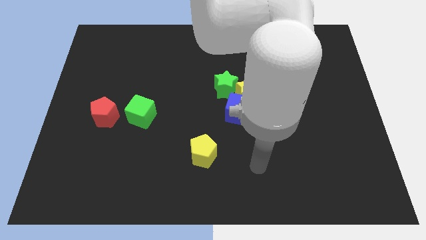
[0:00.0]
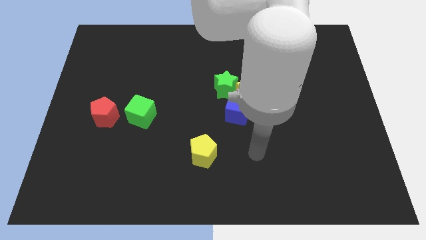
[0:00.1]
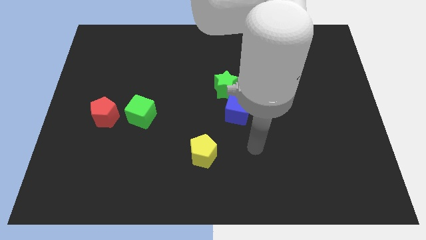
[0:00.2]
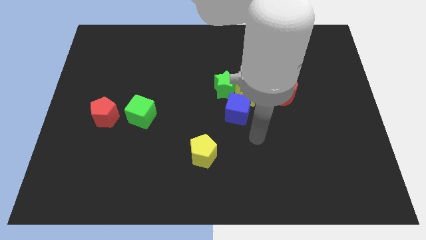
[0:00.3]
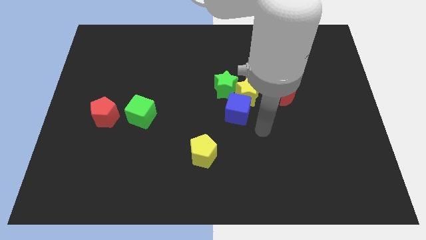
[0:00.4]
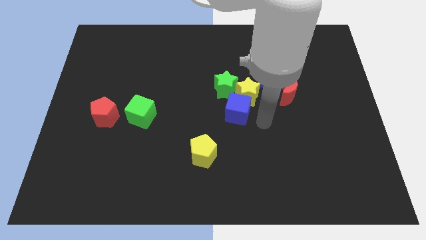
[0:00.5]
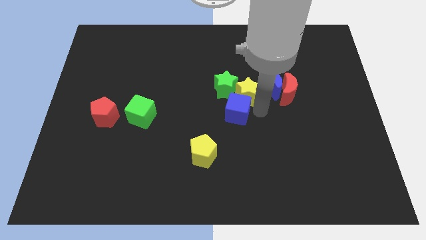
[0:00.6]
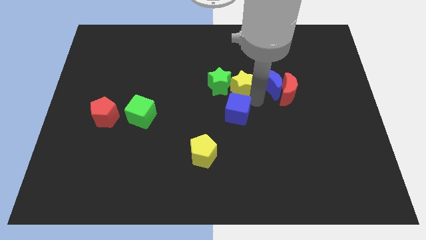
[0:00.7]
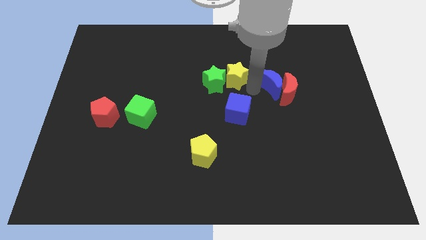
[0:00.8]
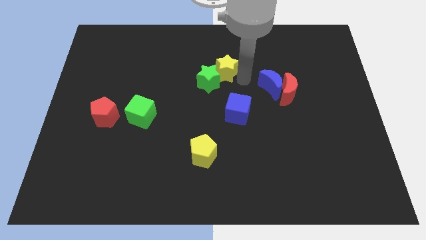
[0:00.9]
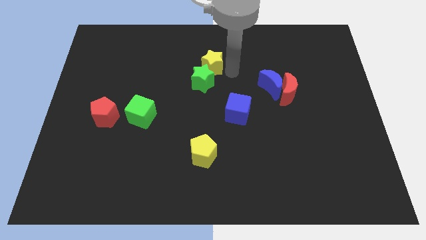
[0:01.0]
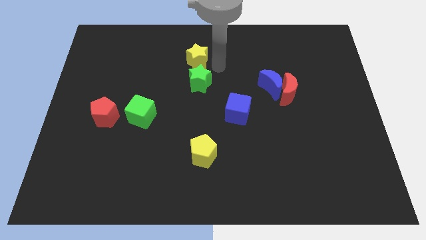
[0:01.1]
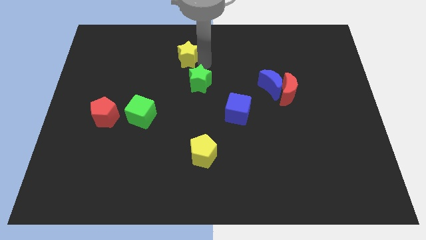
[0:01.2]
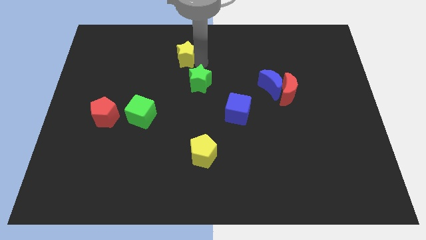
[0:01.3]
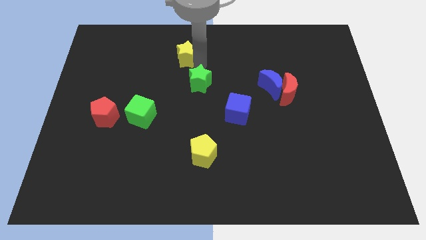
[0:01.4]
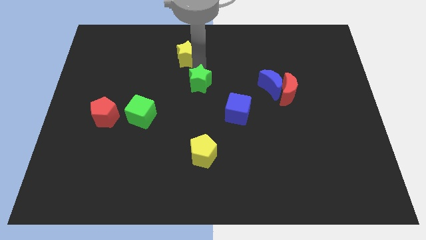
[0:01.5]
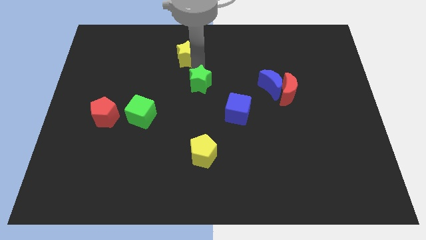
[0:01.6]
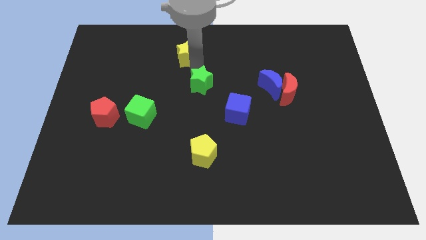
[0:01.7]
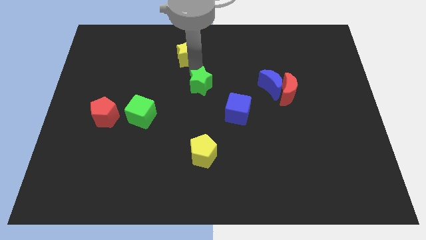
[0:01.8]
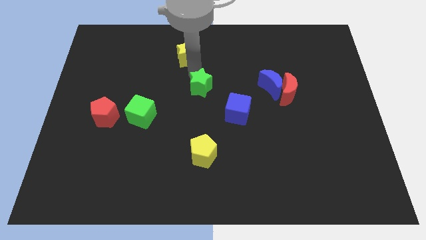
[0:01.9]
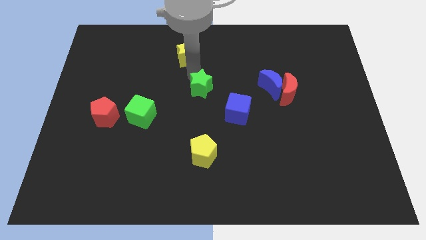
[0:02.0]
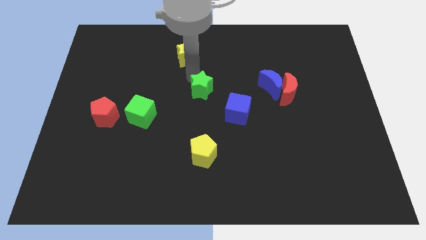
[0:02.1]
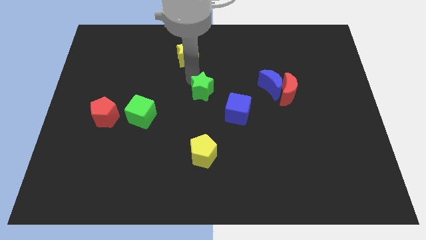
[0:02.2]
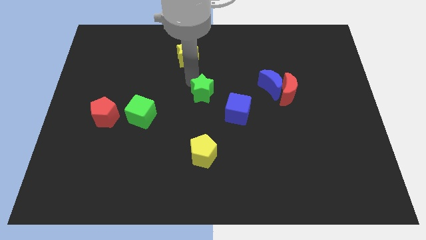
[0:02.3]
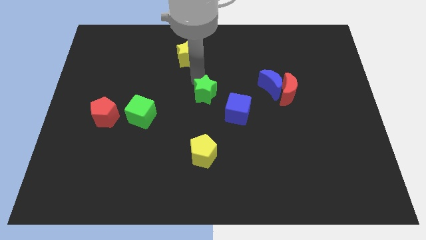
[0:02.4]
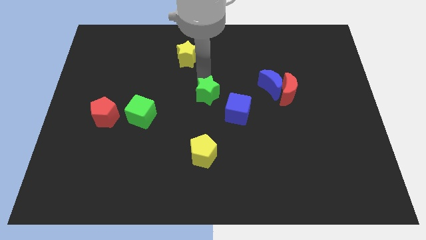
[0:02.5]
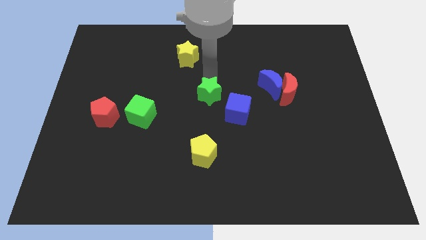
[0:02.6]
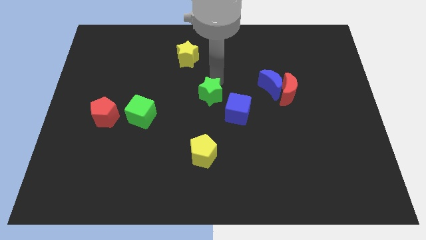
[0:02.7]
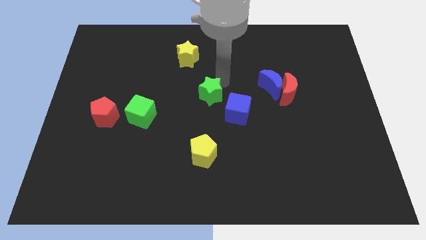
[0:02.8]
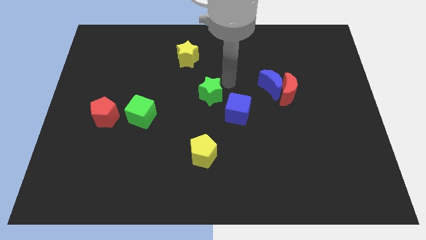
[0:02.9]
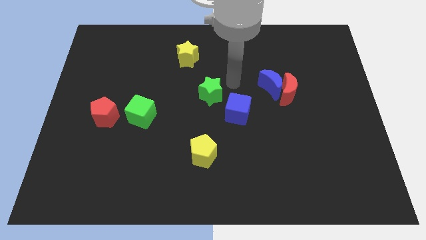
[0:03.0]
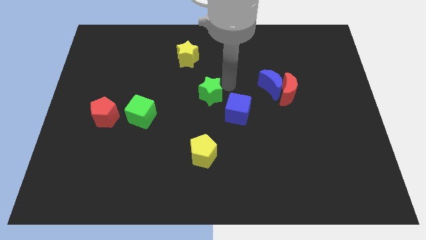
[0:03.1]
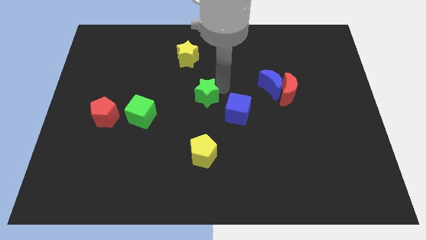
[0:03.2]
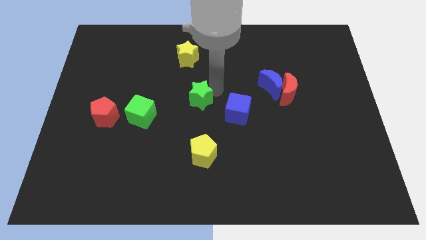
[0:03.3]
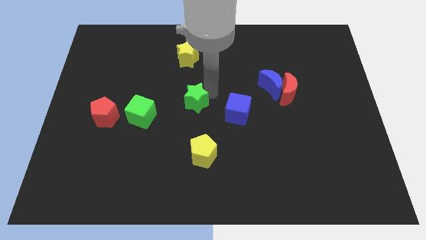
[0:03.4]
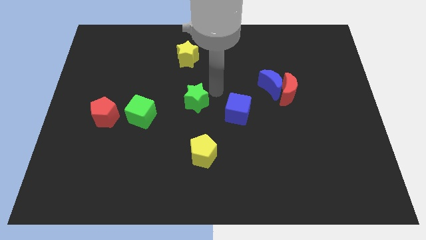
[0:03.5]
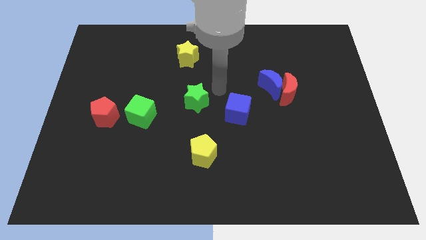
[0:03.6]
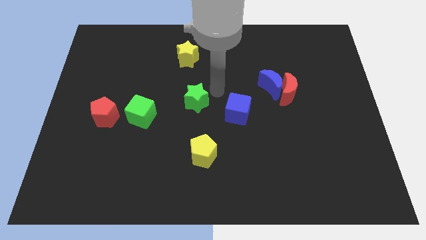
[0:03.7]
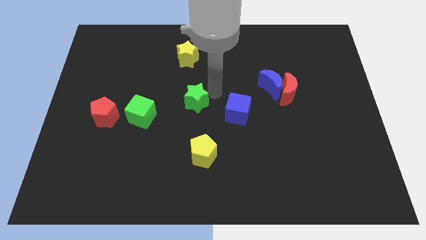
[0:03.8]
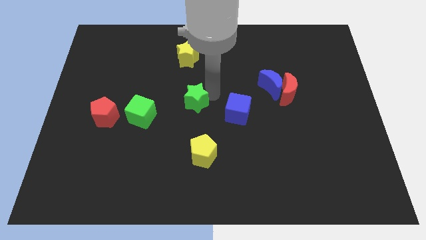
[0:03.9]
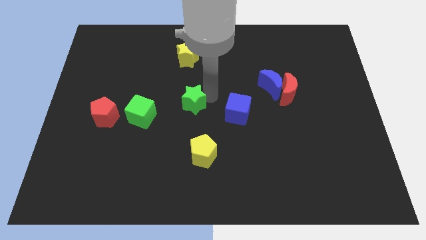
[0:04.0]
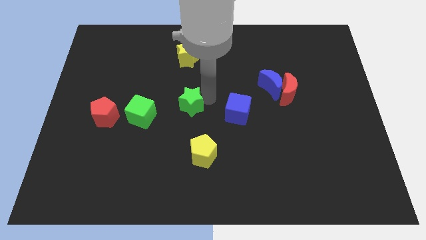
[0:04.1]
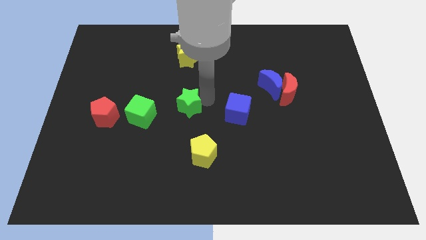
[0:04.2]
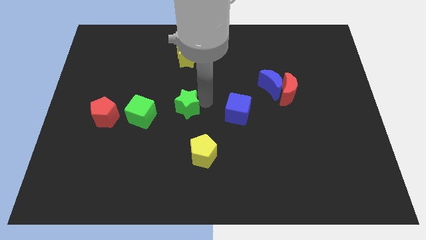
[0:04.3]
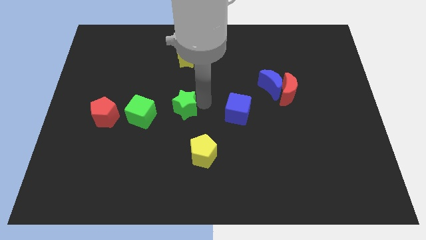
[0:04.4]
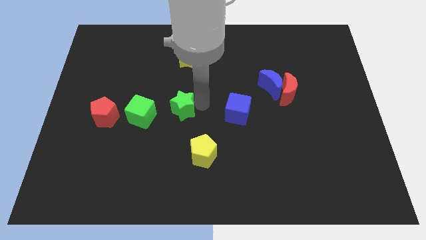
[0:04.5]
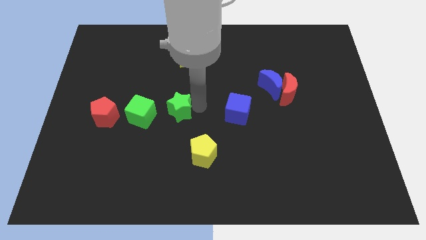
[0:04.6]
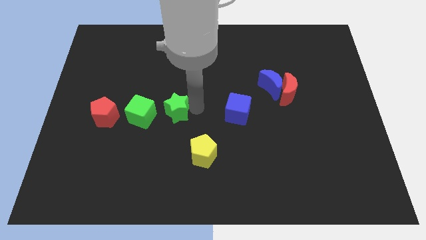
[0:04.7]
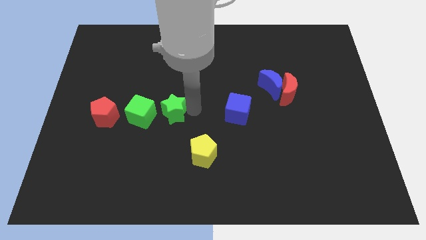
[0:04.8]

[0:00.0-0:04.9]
slide the green star to the right of the red pentagon

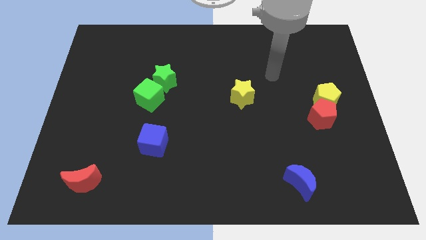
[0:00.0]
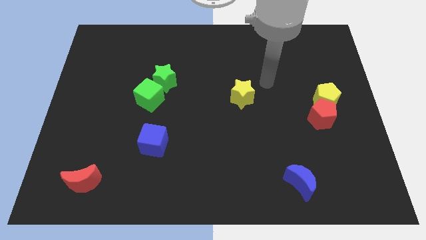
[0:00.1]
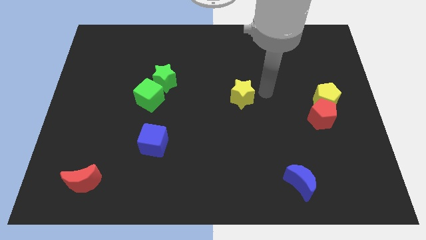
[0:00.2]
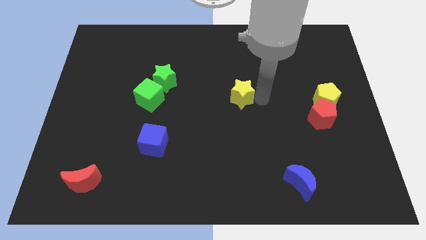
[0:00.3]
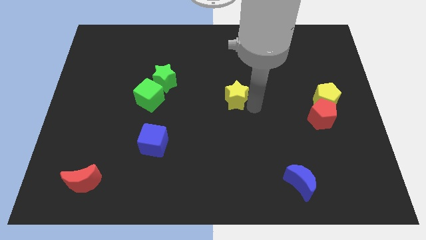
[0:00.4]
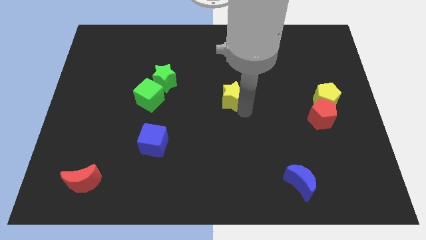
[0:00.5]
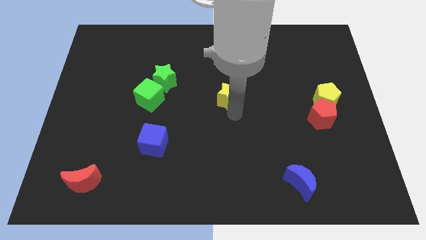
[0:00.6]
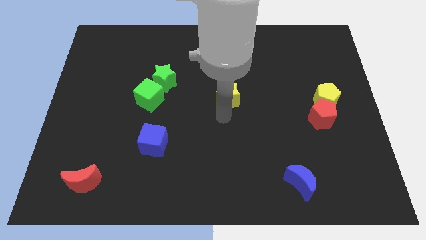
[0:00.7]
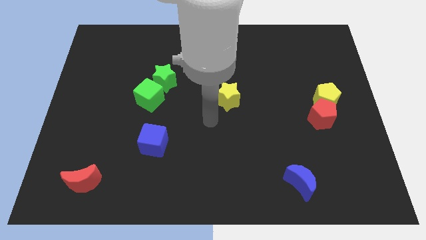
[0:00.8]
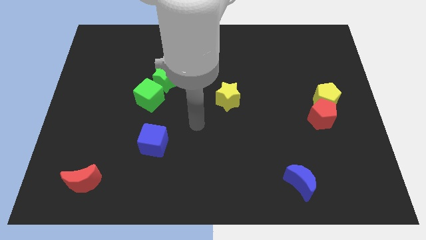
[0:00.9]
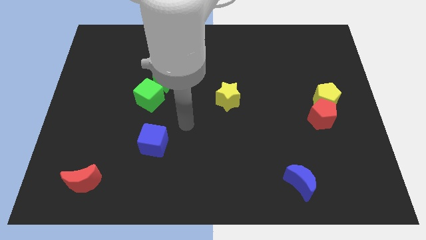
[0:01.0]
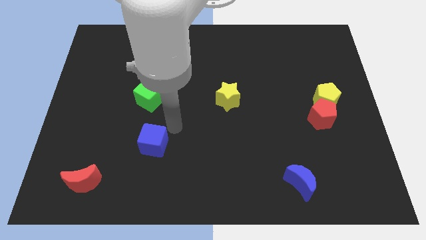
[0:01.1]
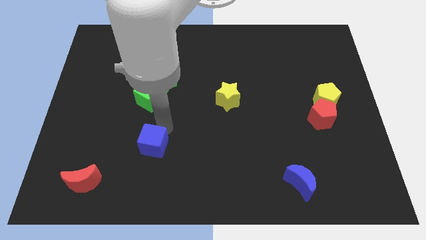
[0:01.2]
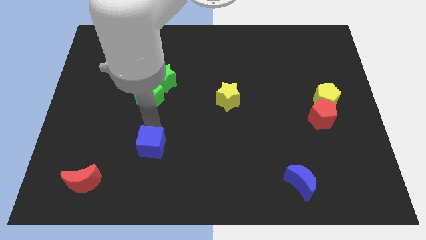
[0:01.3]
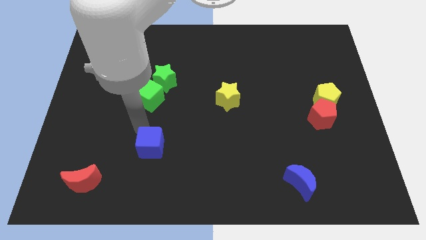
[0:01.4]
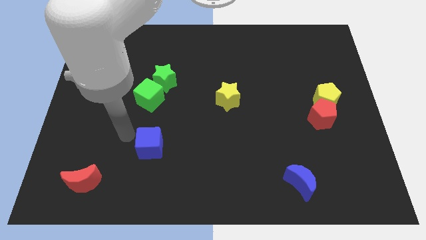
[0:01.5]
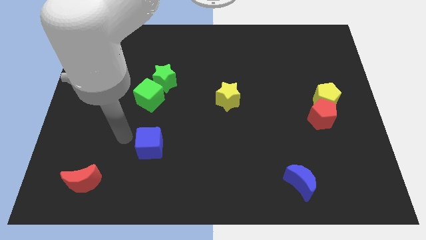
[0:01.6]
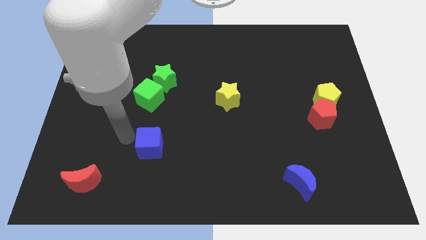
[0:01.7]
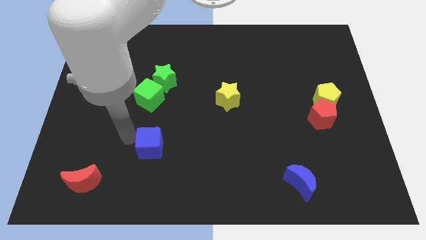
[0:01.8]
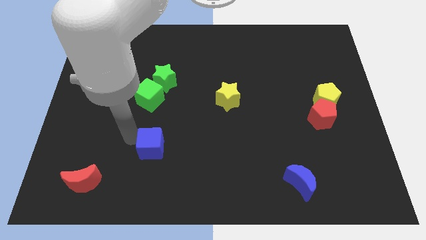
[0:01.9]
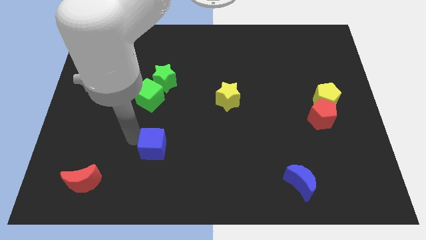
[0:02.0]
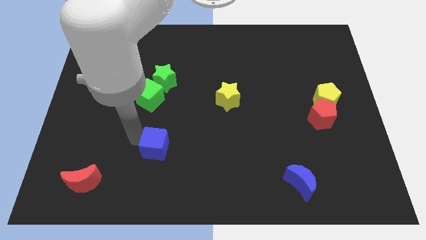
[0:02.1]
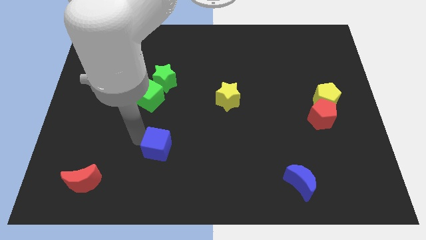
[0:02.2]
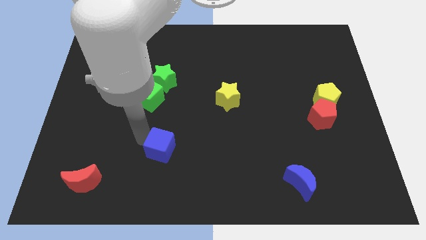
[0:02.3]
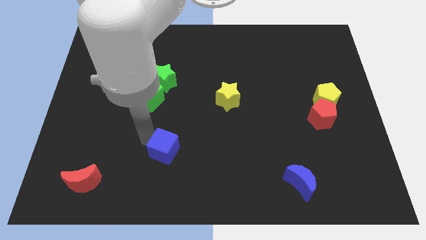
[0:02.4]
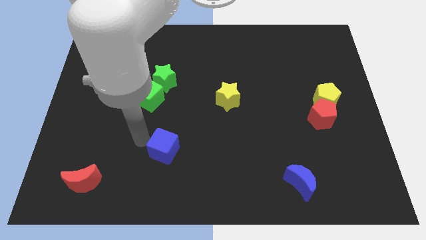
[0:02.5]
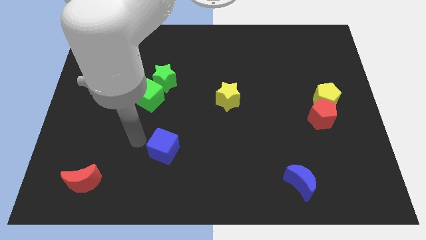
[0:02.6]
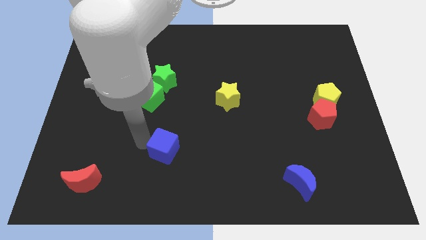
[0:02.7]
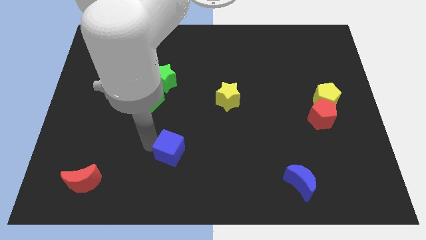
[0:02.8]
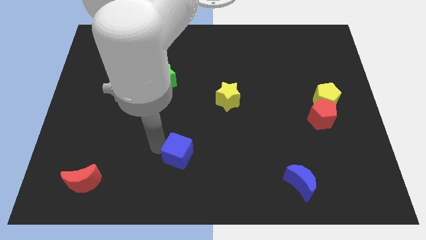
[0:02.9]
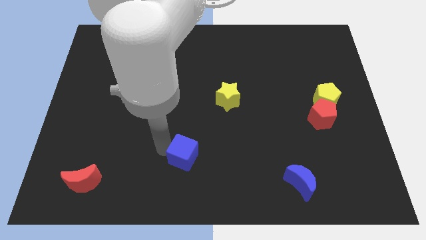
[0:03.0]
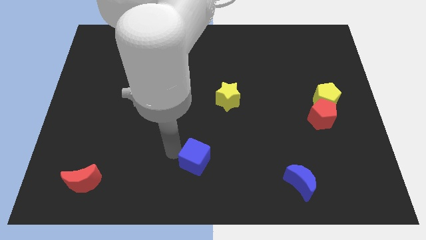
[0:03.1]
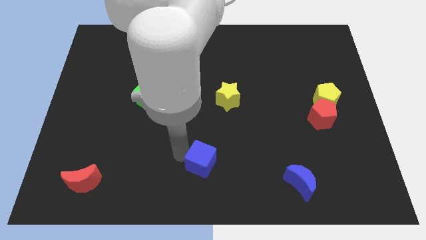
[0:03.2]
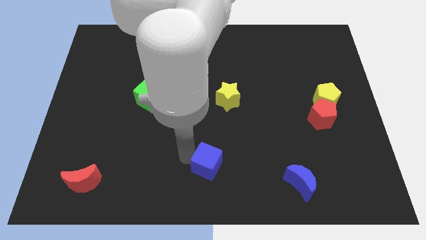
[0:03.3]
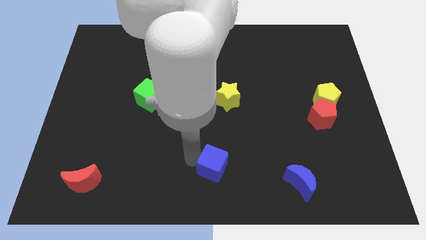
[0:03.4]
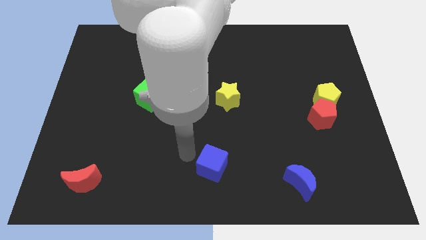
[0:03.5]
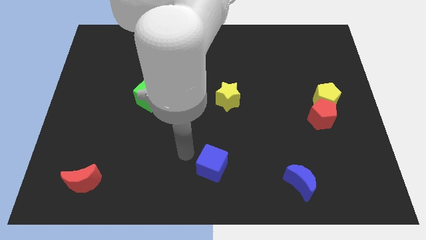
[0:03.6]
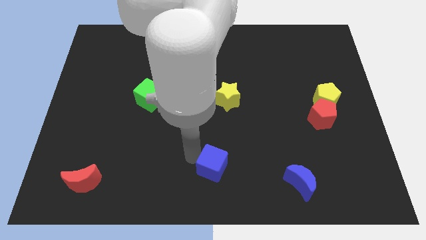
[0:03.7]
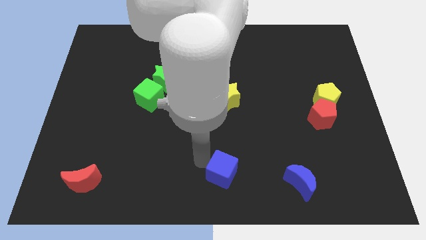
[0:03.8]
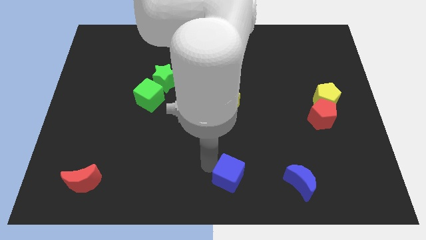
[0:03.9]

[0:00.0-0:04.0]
put the blue cube to the left of the blue moon
